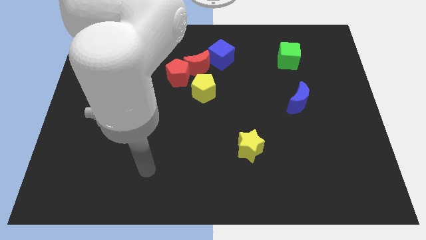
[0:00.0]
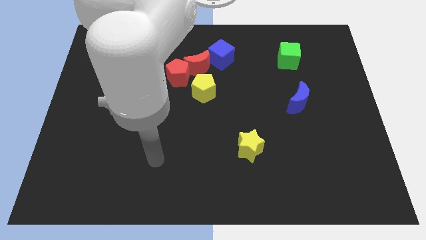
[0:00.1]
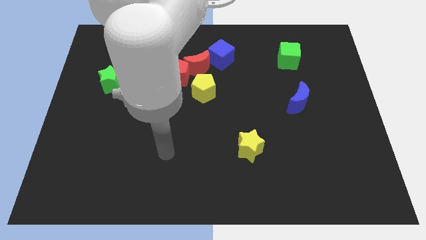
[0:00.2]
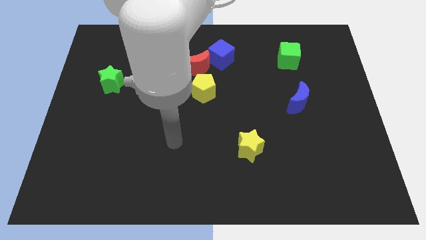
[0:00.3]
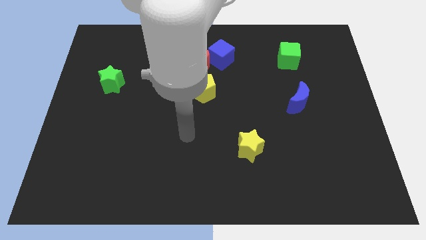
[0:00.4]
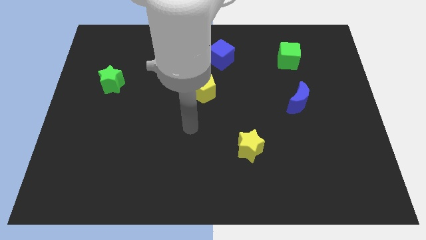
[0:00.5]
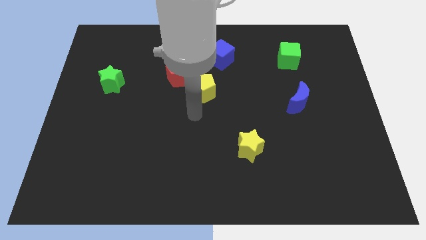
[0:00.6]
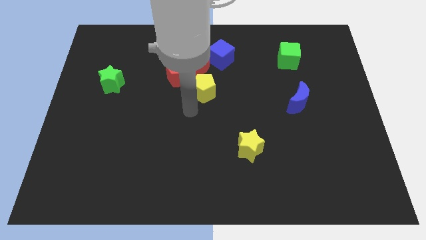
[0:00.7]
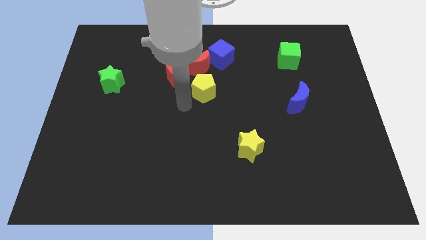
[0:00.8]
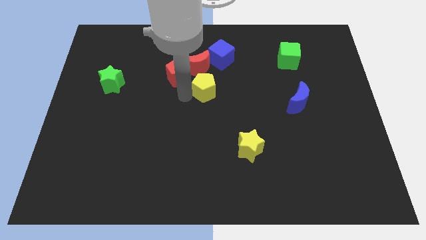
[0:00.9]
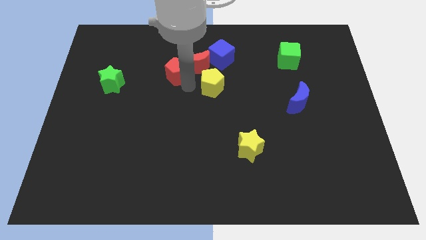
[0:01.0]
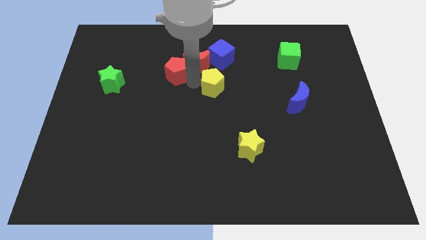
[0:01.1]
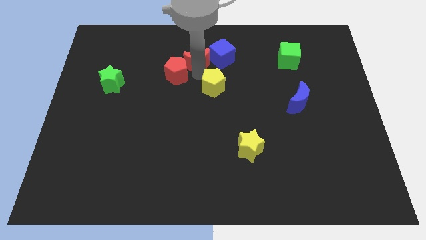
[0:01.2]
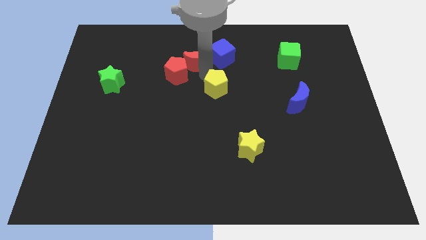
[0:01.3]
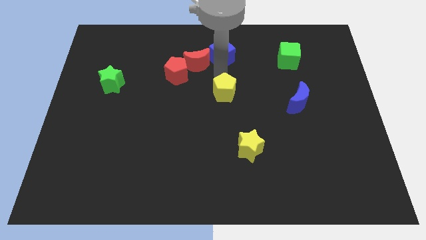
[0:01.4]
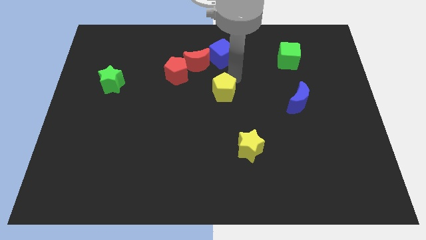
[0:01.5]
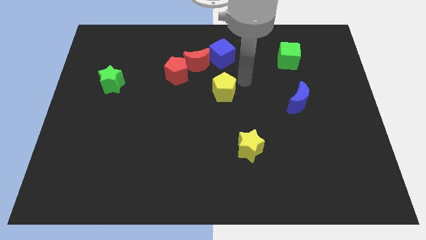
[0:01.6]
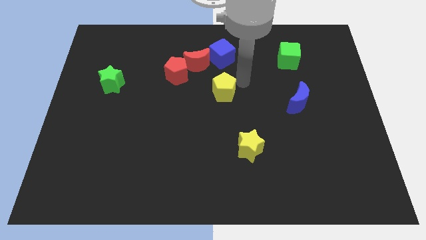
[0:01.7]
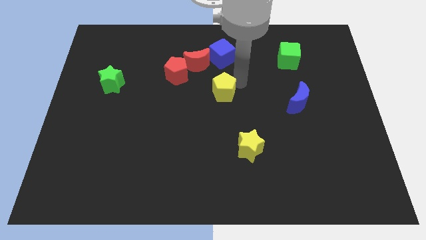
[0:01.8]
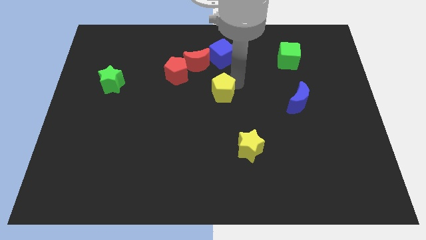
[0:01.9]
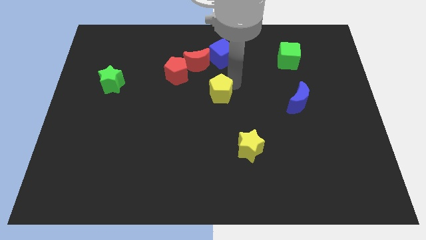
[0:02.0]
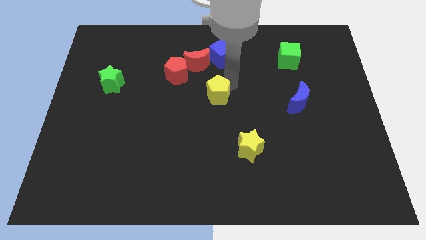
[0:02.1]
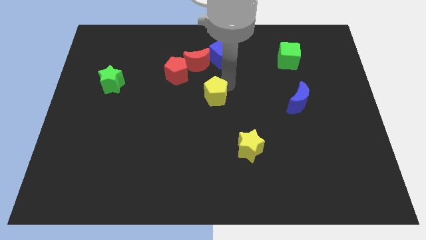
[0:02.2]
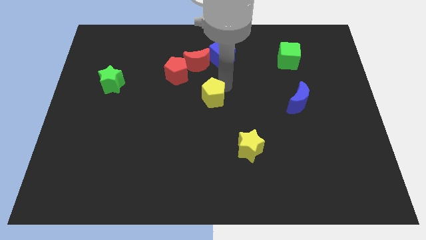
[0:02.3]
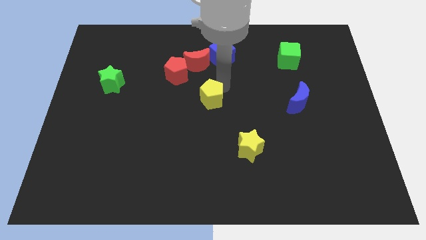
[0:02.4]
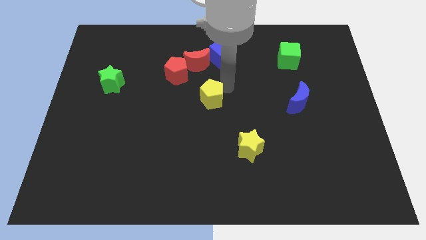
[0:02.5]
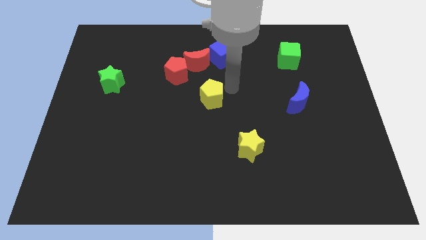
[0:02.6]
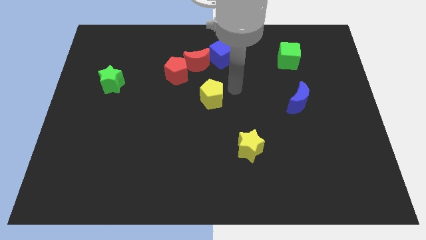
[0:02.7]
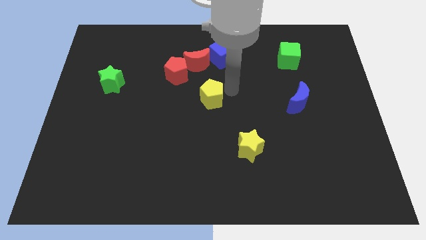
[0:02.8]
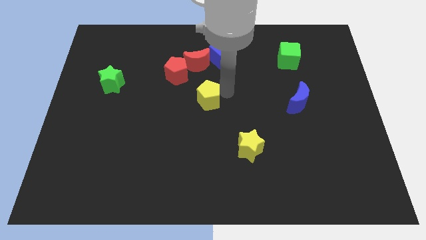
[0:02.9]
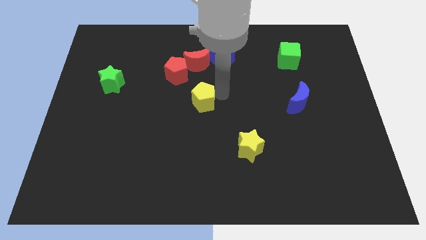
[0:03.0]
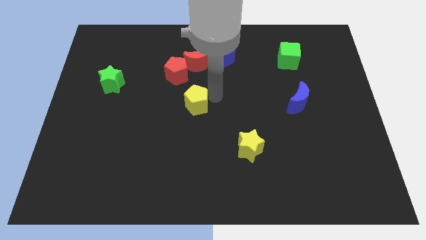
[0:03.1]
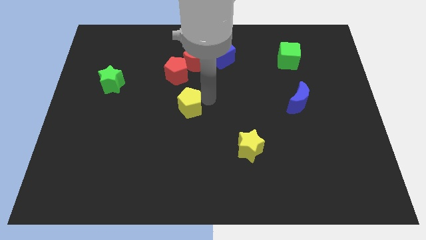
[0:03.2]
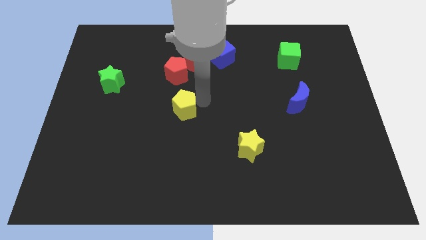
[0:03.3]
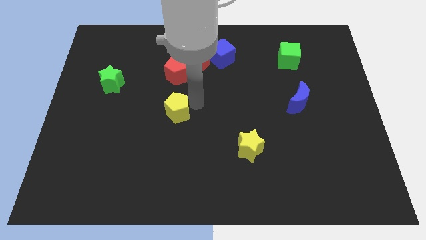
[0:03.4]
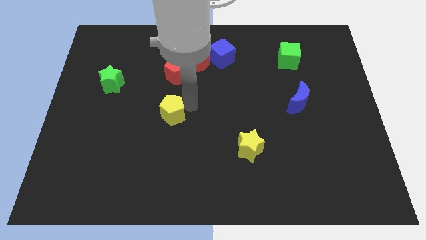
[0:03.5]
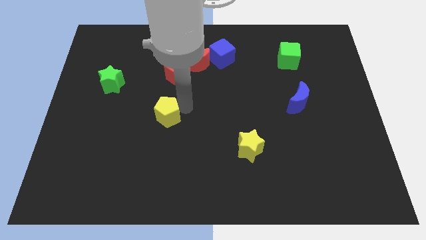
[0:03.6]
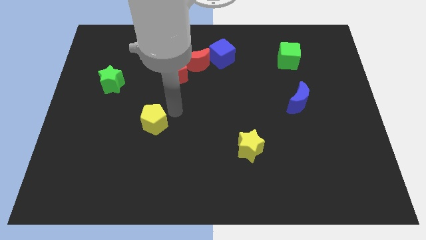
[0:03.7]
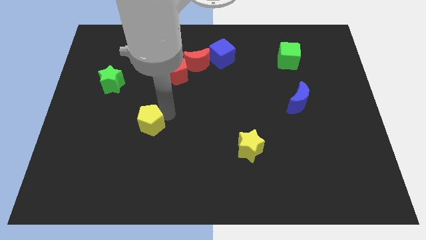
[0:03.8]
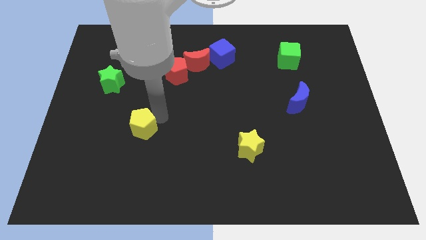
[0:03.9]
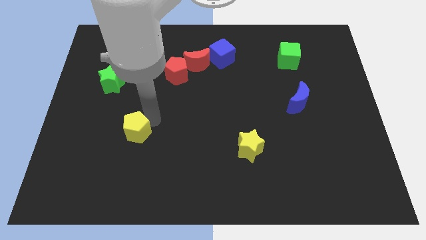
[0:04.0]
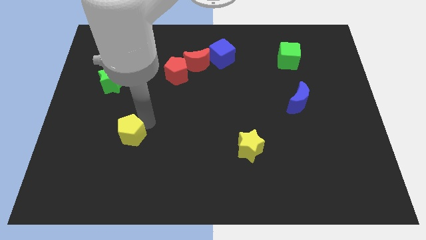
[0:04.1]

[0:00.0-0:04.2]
move the yellow pentagon diagonally downwards and left

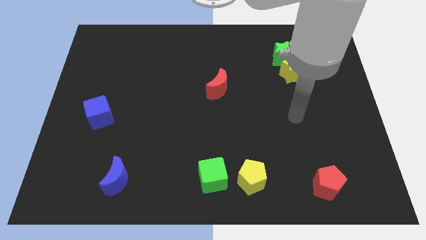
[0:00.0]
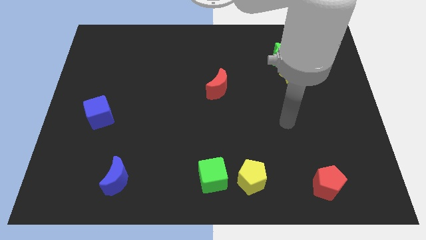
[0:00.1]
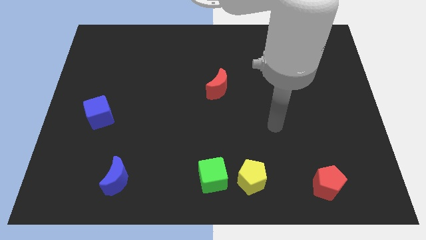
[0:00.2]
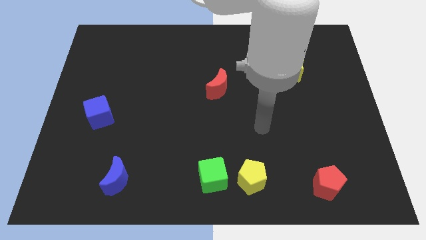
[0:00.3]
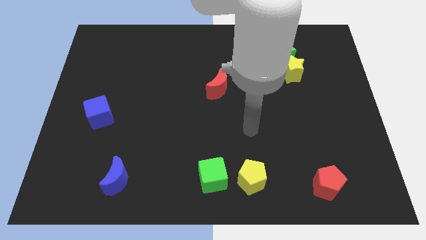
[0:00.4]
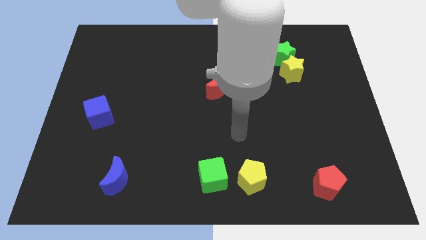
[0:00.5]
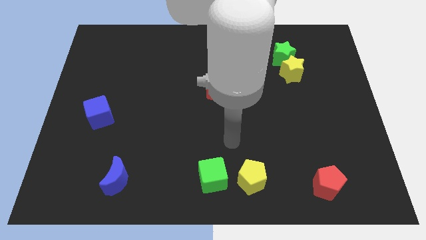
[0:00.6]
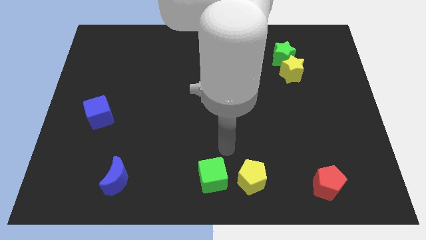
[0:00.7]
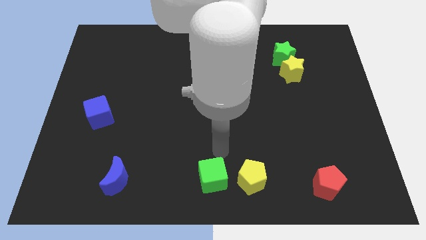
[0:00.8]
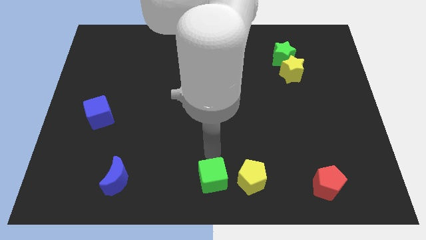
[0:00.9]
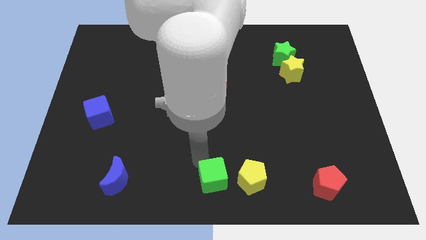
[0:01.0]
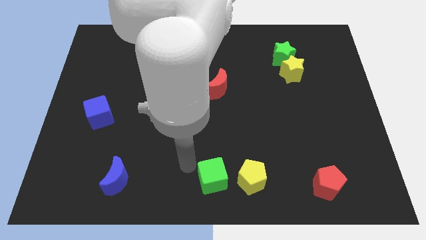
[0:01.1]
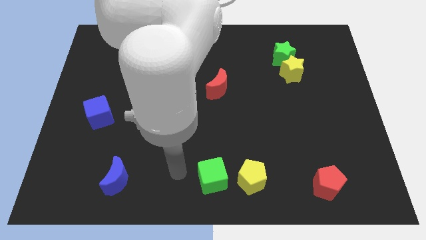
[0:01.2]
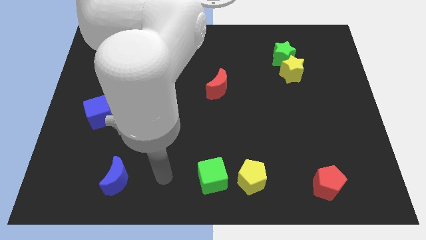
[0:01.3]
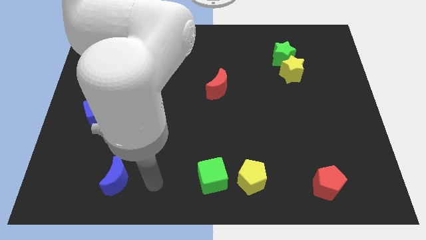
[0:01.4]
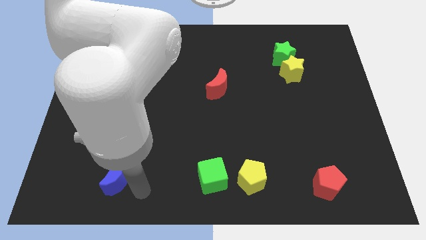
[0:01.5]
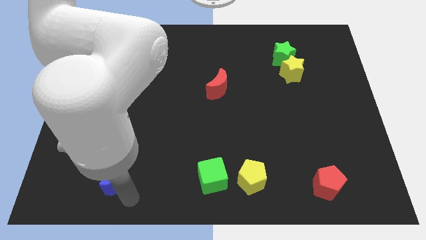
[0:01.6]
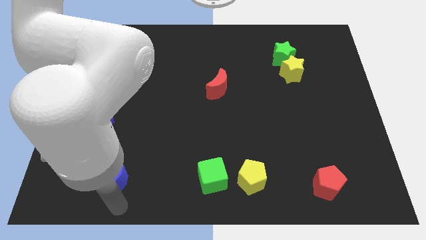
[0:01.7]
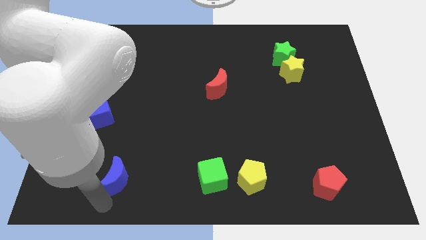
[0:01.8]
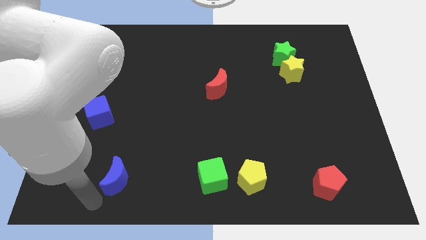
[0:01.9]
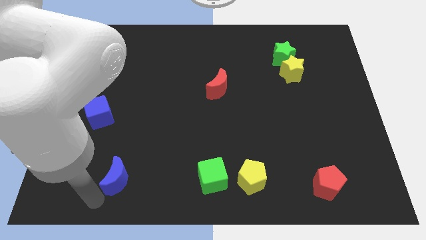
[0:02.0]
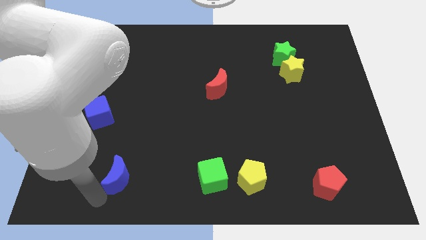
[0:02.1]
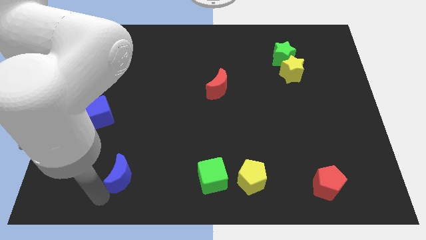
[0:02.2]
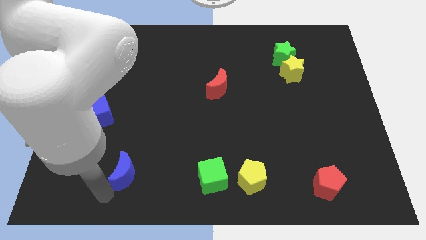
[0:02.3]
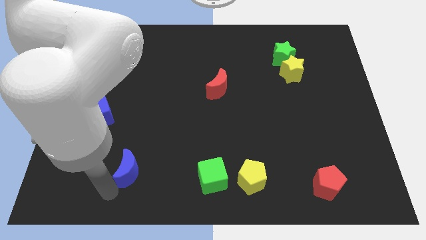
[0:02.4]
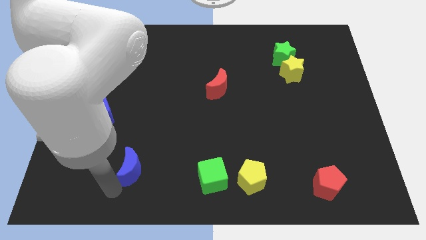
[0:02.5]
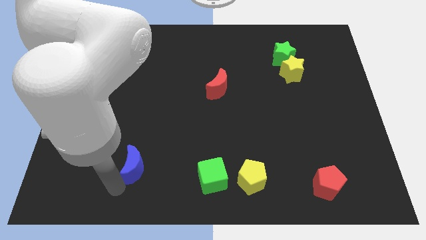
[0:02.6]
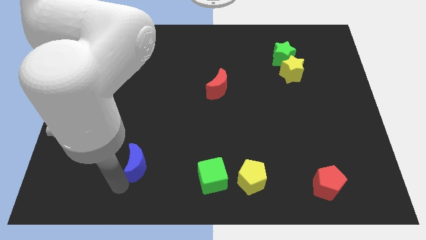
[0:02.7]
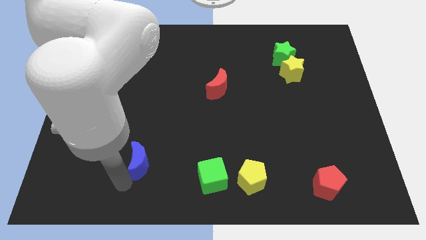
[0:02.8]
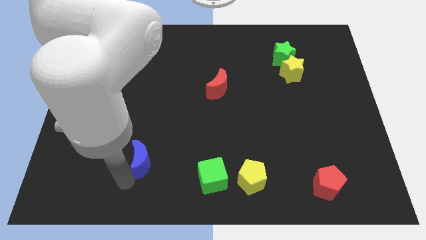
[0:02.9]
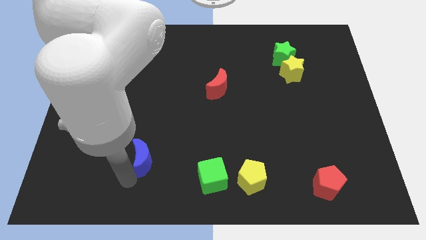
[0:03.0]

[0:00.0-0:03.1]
push the blue moon up and then to the right slightly

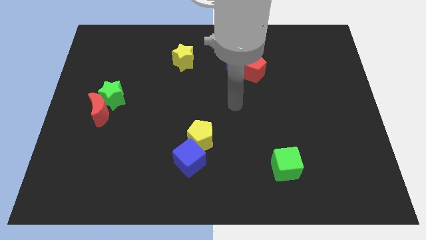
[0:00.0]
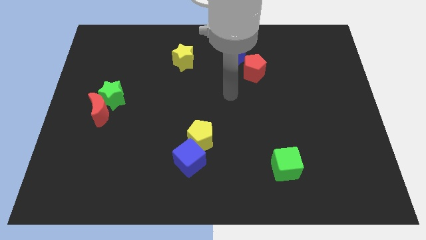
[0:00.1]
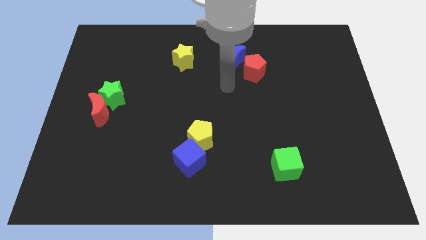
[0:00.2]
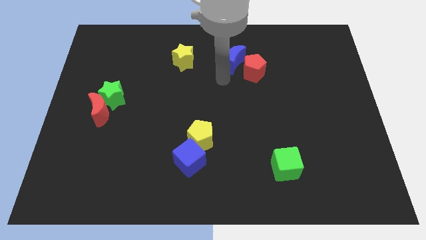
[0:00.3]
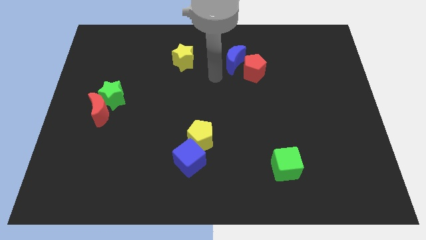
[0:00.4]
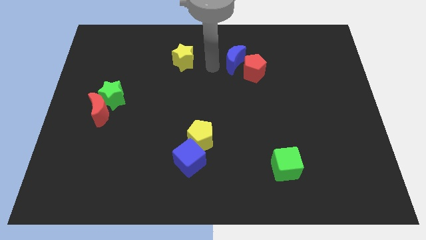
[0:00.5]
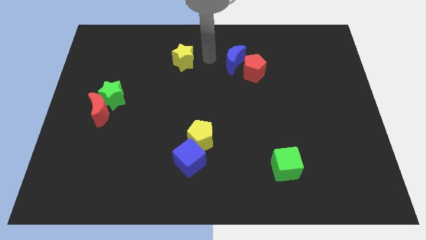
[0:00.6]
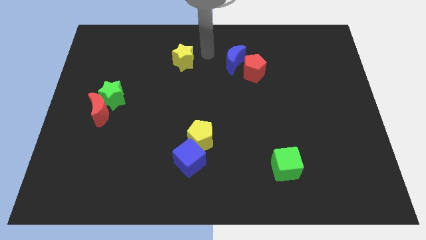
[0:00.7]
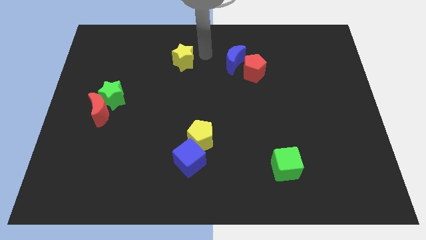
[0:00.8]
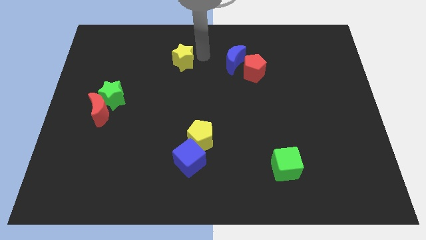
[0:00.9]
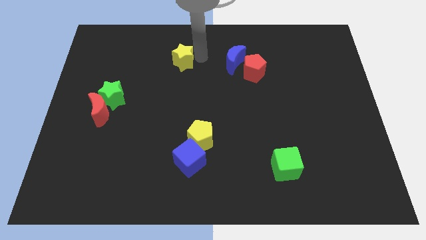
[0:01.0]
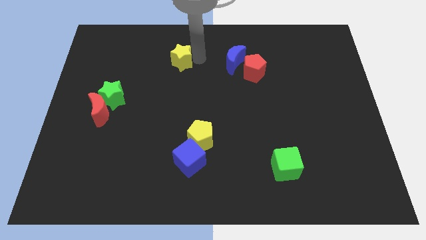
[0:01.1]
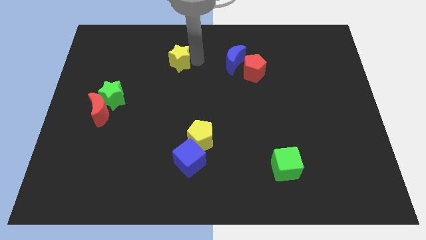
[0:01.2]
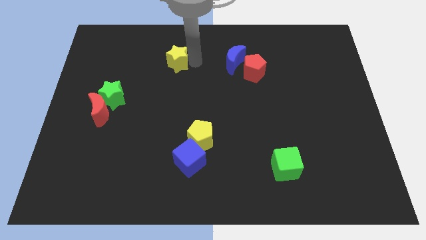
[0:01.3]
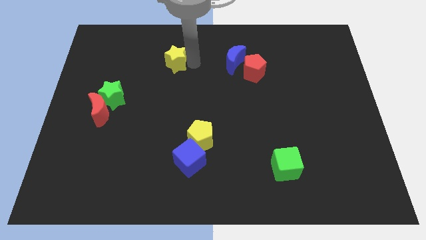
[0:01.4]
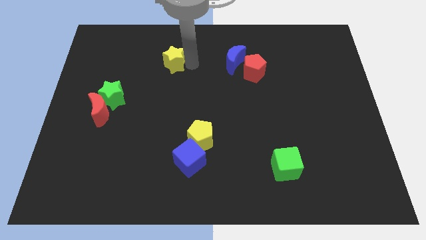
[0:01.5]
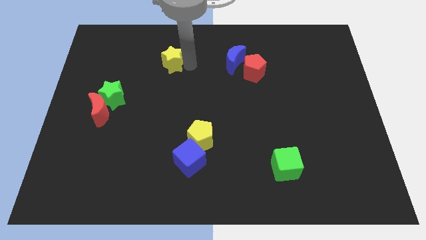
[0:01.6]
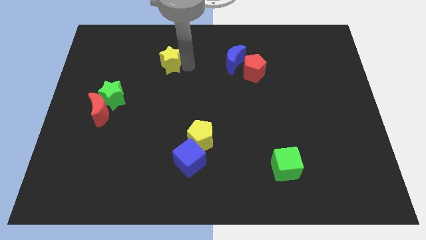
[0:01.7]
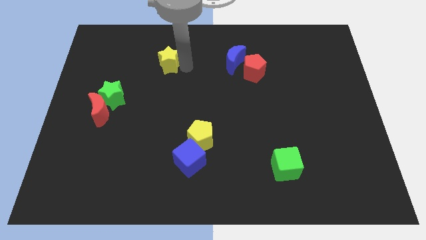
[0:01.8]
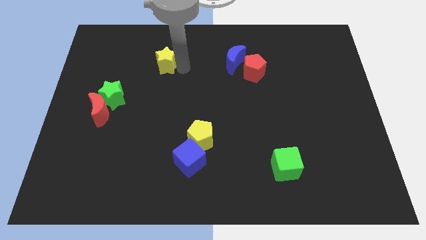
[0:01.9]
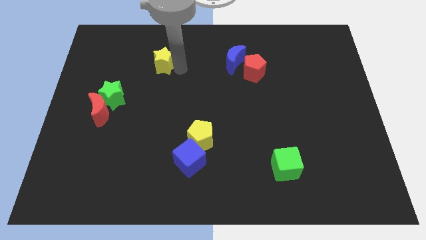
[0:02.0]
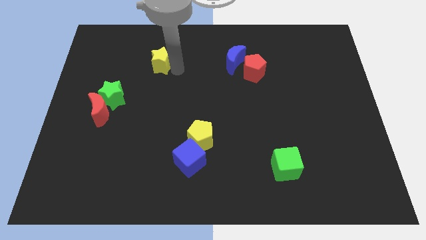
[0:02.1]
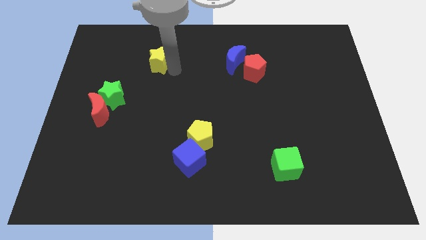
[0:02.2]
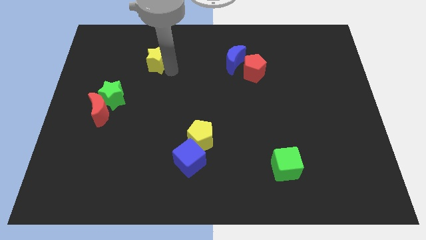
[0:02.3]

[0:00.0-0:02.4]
move the yellow star left a little
